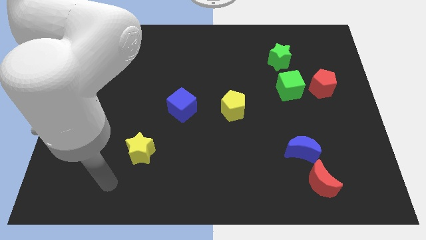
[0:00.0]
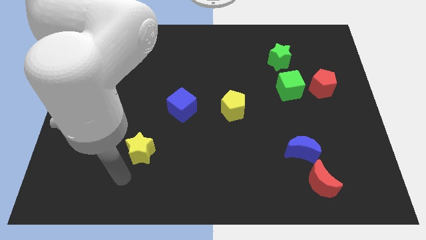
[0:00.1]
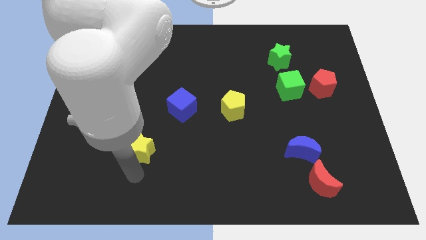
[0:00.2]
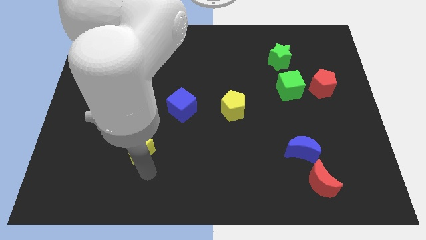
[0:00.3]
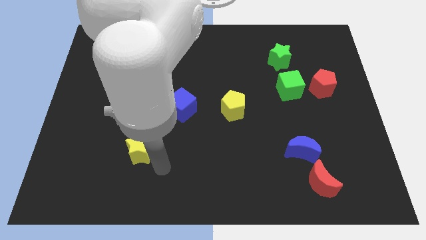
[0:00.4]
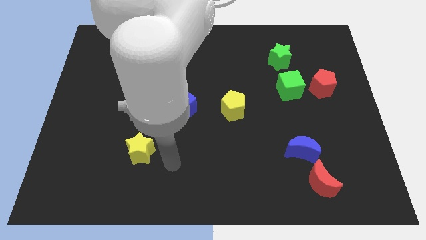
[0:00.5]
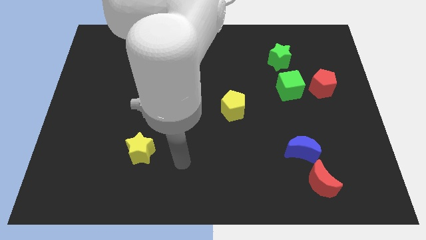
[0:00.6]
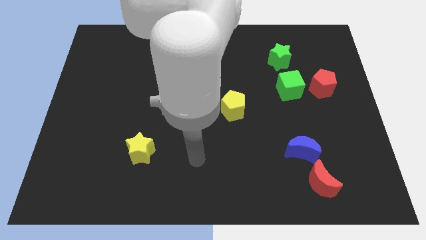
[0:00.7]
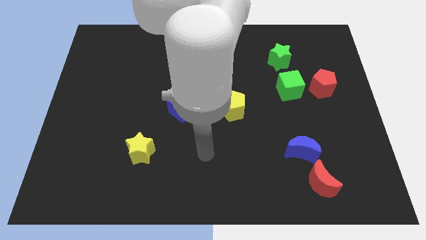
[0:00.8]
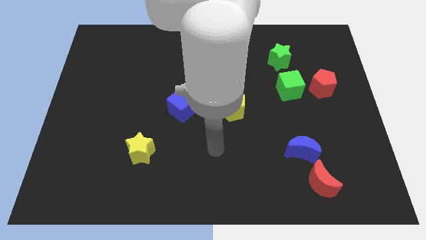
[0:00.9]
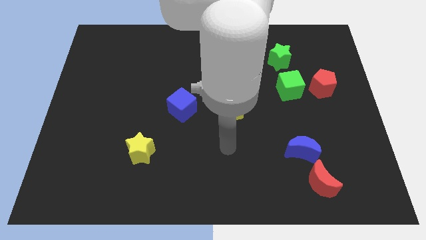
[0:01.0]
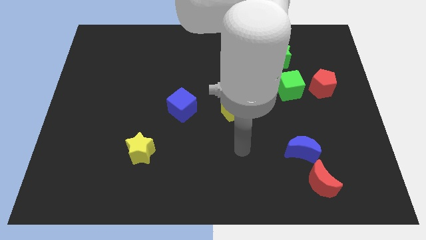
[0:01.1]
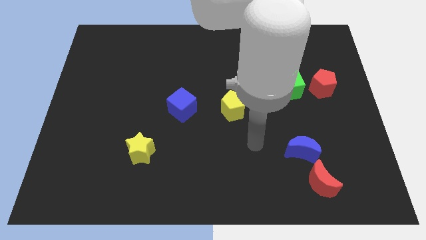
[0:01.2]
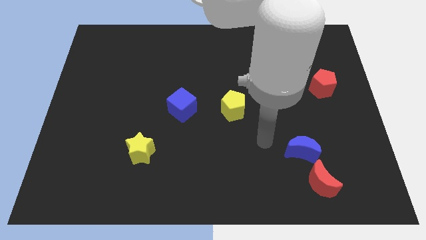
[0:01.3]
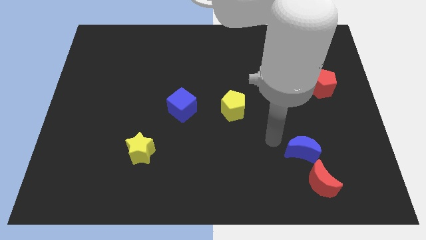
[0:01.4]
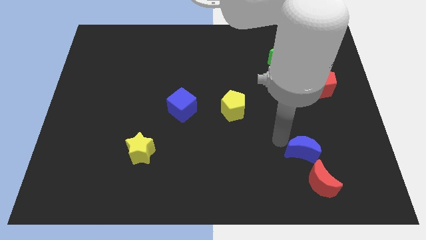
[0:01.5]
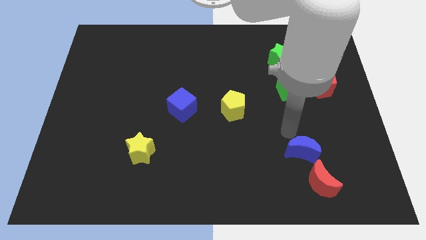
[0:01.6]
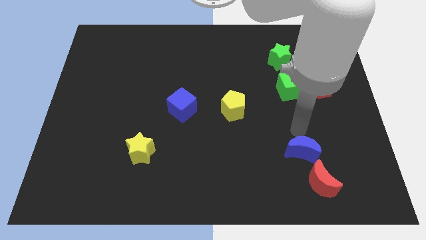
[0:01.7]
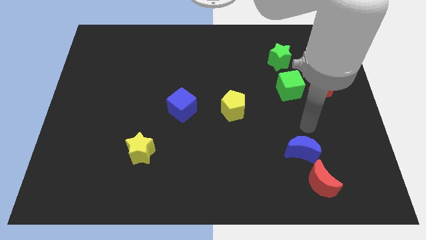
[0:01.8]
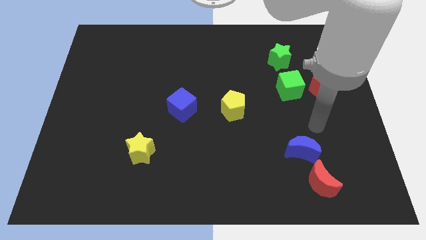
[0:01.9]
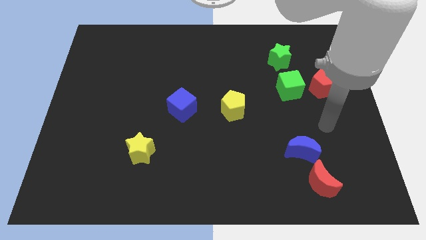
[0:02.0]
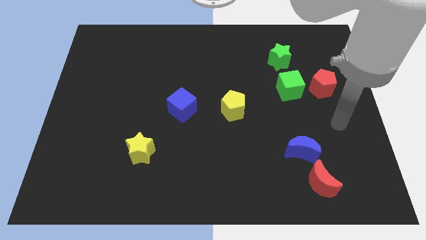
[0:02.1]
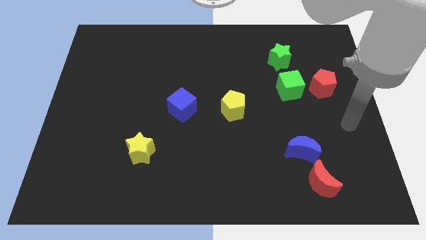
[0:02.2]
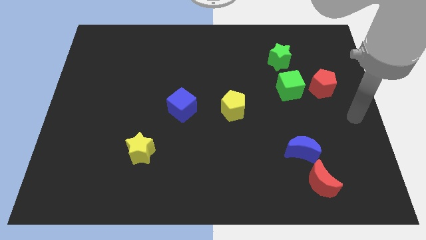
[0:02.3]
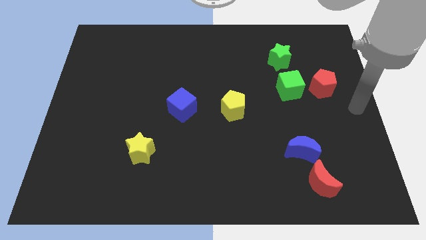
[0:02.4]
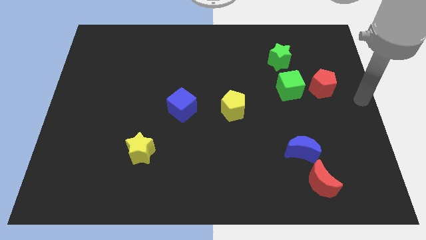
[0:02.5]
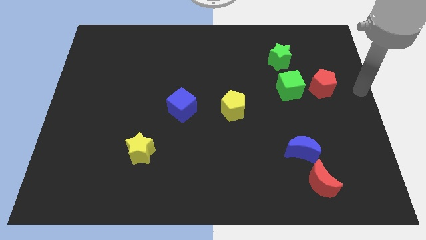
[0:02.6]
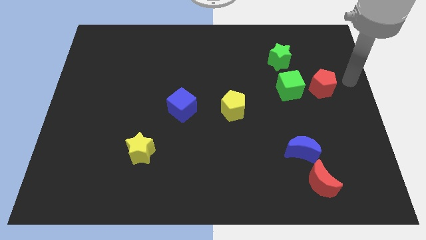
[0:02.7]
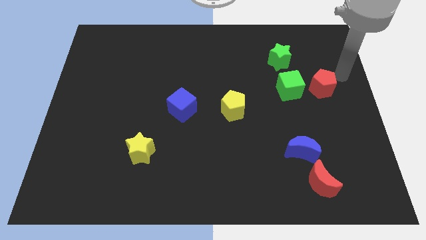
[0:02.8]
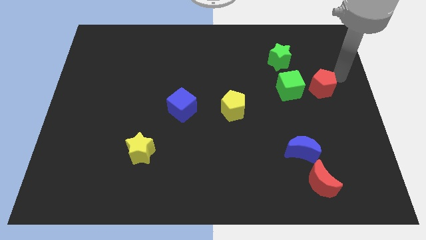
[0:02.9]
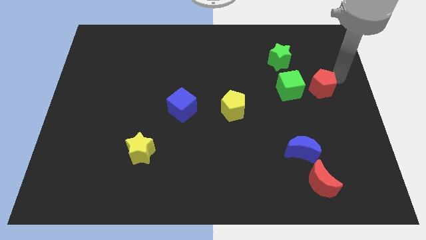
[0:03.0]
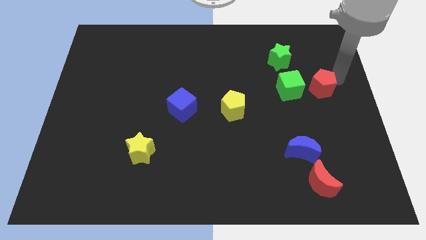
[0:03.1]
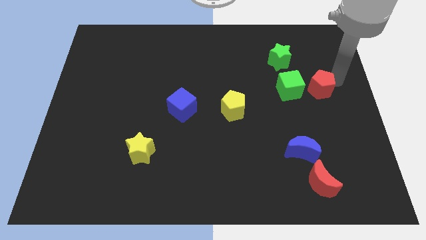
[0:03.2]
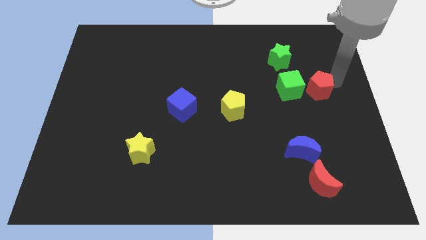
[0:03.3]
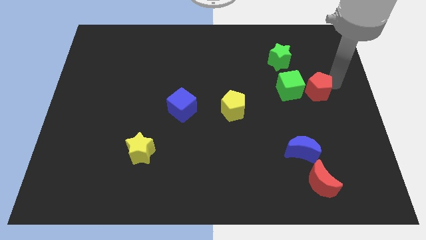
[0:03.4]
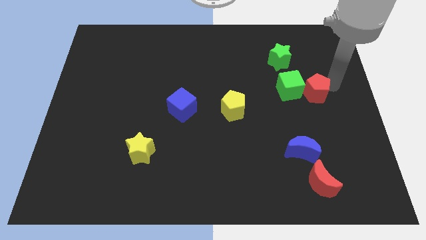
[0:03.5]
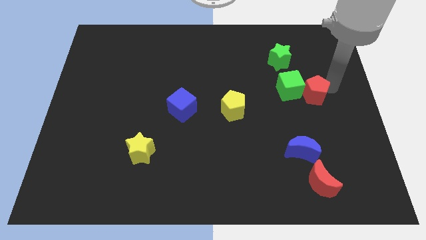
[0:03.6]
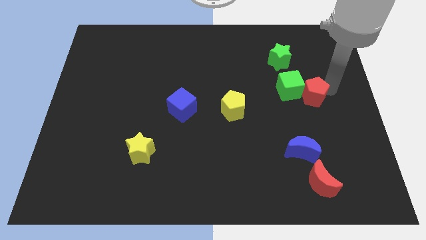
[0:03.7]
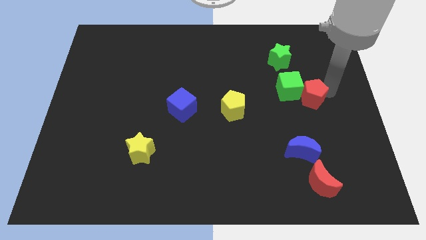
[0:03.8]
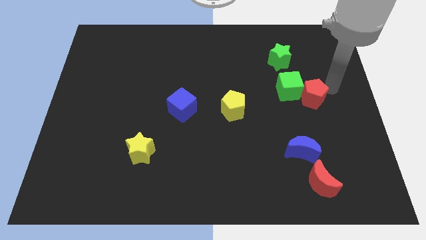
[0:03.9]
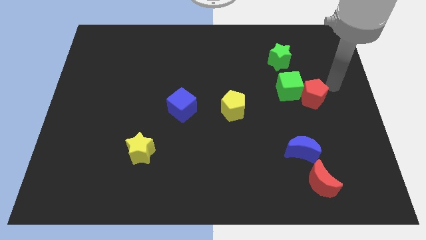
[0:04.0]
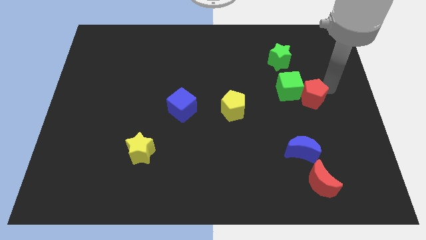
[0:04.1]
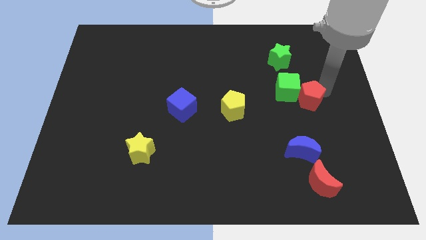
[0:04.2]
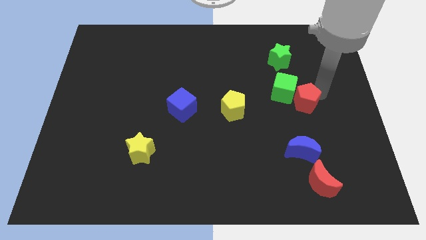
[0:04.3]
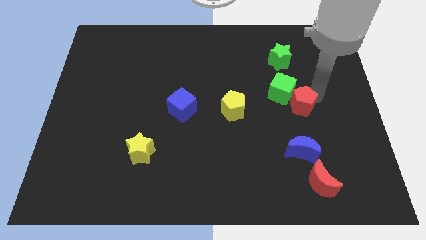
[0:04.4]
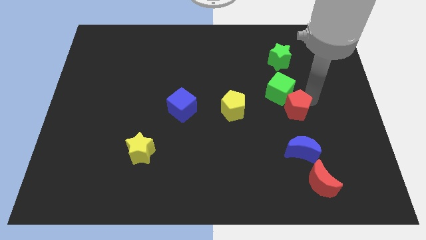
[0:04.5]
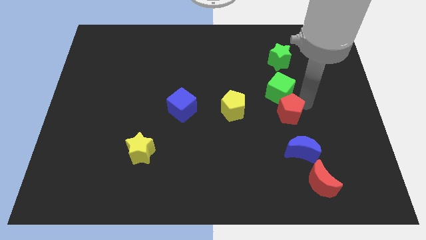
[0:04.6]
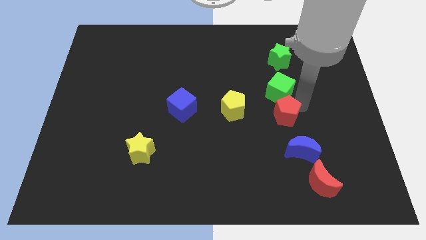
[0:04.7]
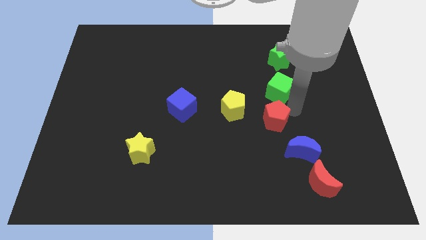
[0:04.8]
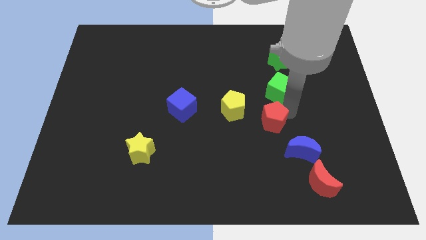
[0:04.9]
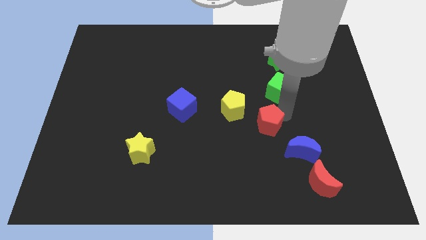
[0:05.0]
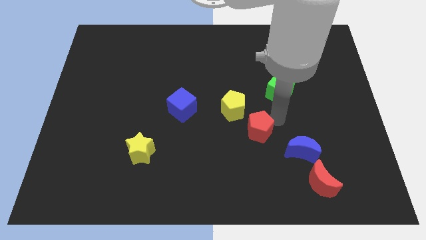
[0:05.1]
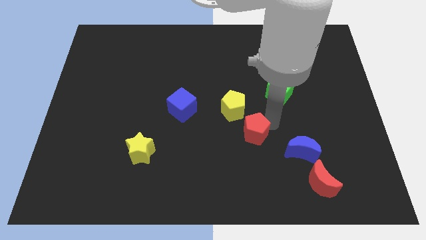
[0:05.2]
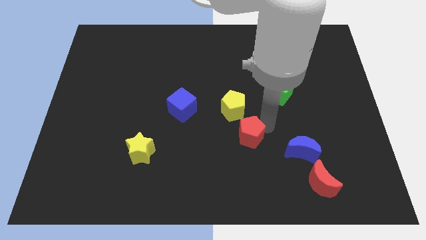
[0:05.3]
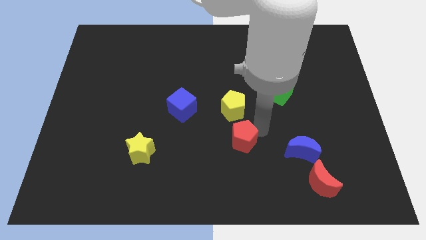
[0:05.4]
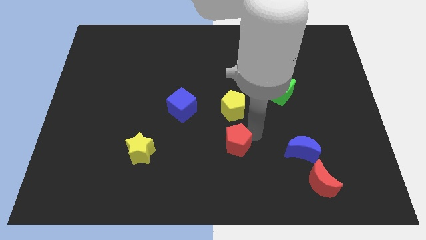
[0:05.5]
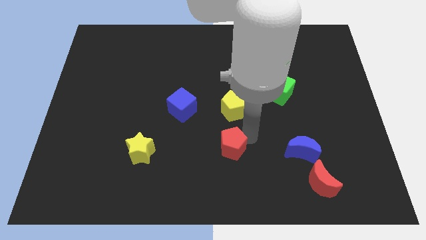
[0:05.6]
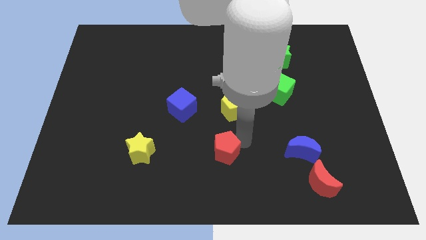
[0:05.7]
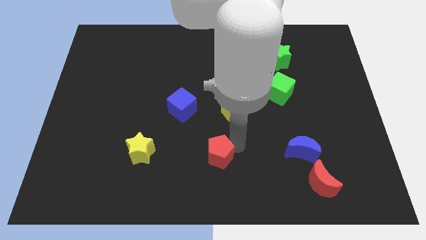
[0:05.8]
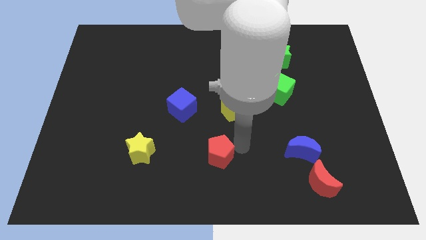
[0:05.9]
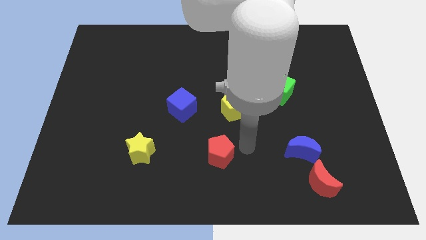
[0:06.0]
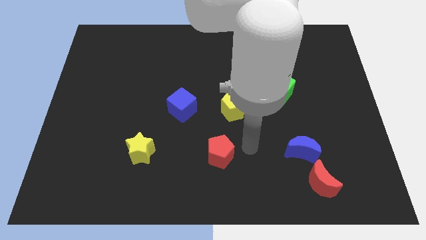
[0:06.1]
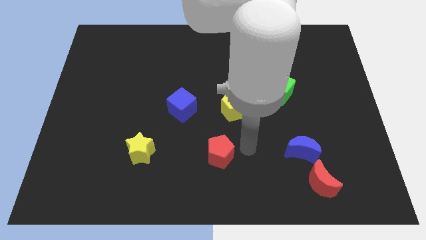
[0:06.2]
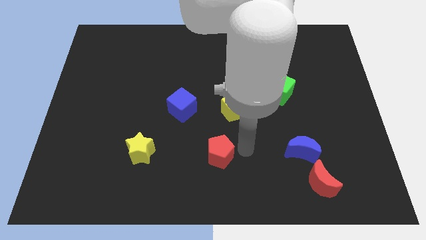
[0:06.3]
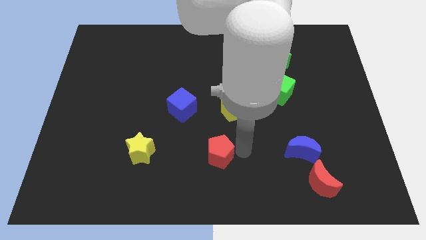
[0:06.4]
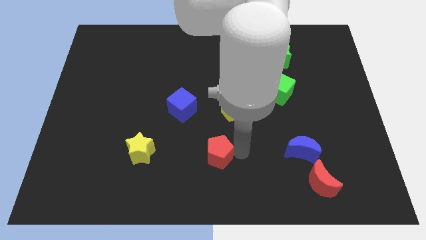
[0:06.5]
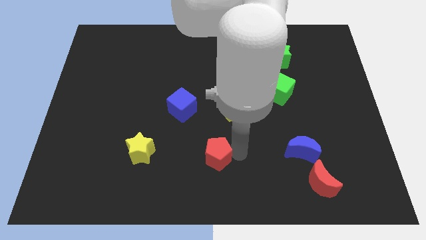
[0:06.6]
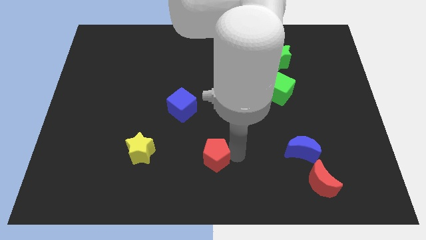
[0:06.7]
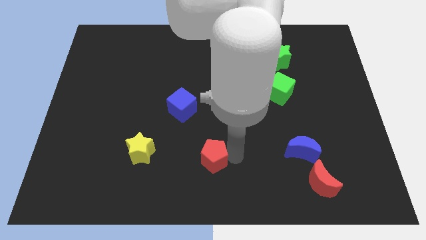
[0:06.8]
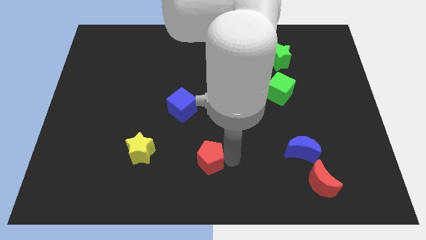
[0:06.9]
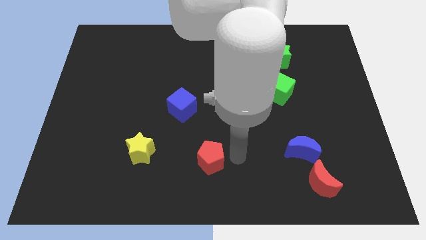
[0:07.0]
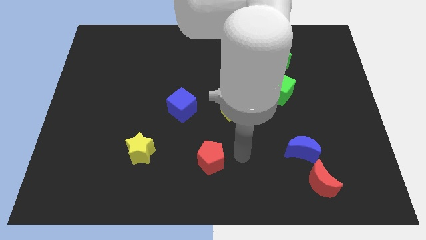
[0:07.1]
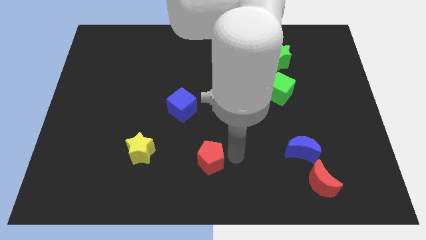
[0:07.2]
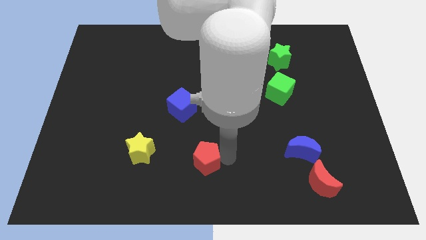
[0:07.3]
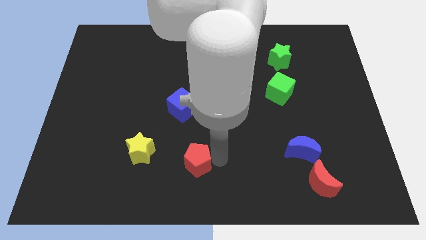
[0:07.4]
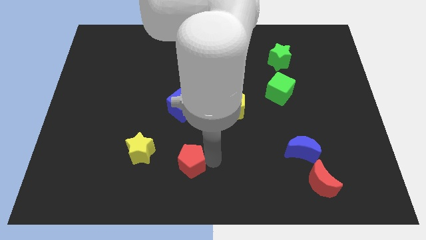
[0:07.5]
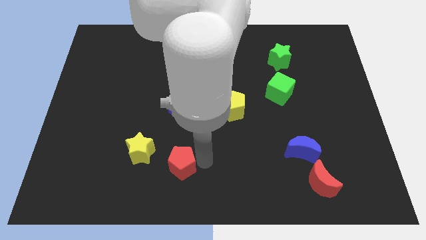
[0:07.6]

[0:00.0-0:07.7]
push the red pentagon diagonally down and to the right of the yellow star
